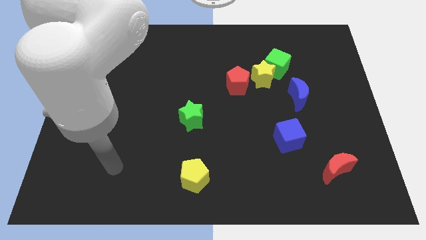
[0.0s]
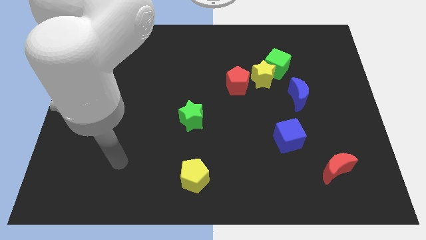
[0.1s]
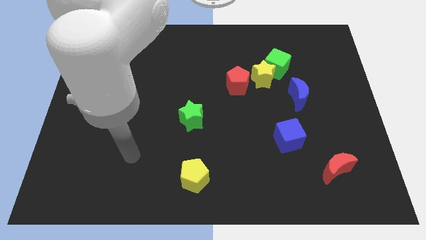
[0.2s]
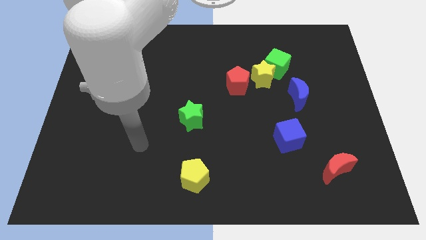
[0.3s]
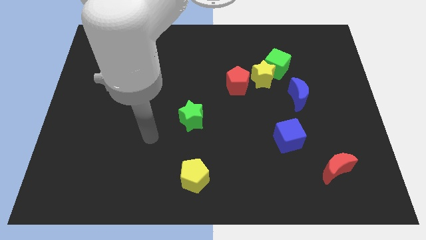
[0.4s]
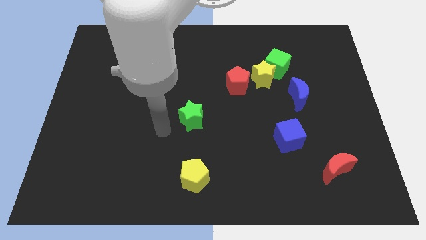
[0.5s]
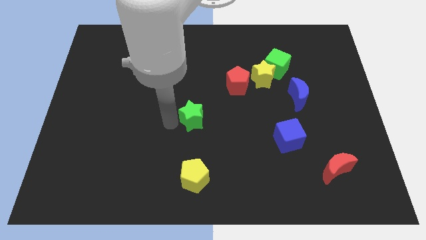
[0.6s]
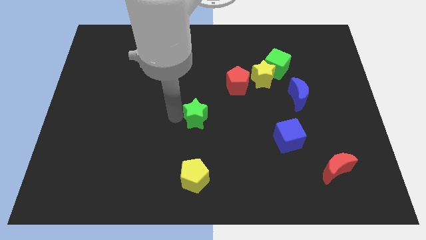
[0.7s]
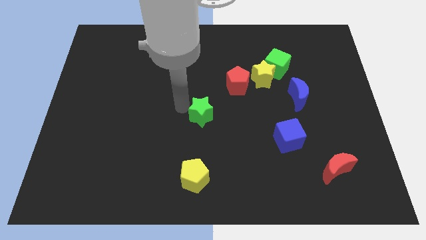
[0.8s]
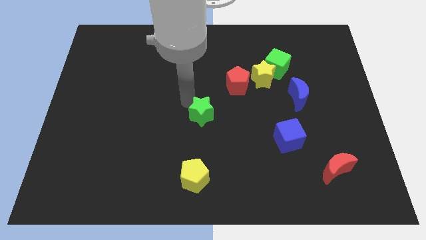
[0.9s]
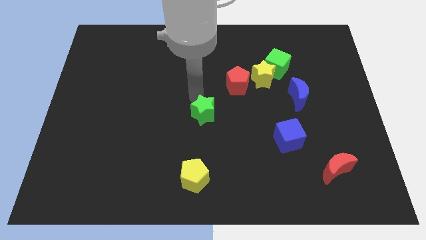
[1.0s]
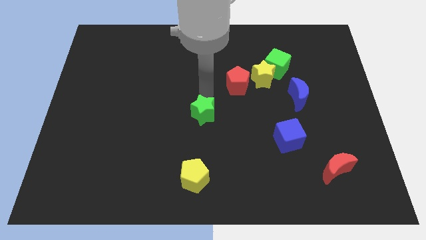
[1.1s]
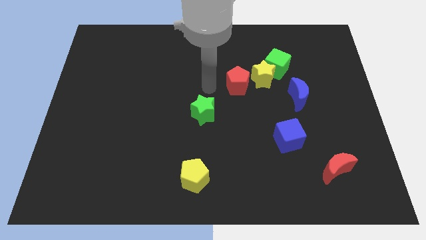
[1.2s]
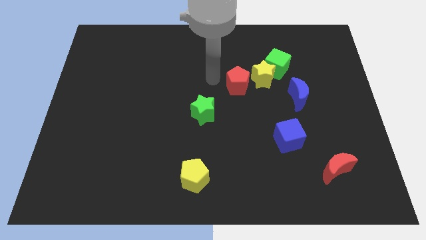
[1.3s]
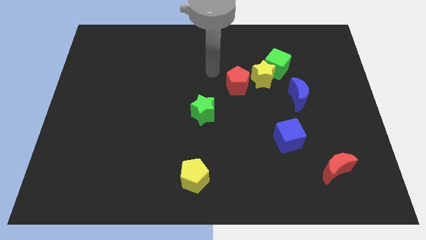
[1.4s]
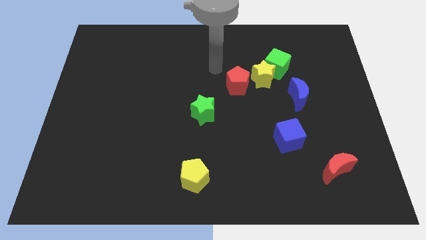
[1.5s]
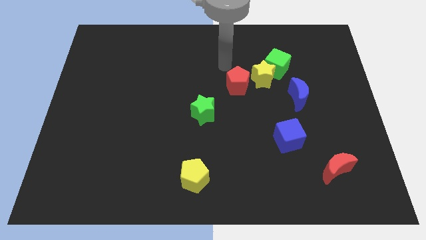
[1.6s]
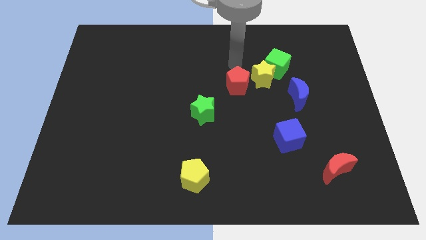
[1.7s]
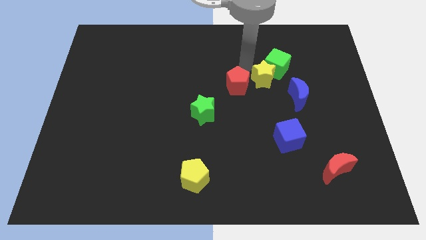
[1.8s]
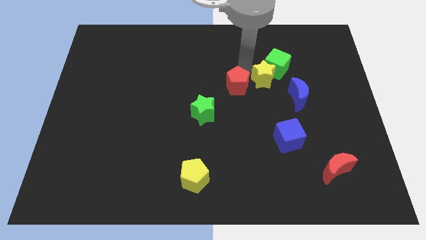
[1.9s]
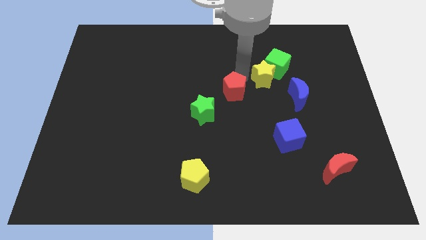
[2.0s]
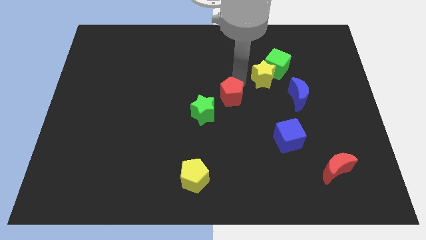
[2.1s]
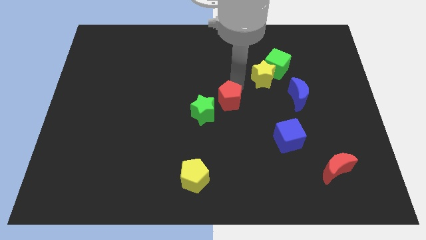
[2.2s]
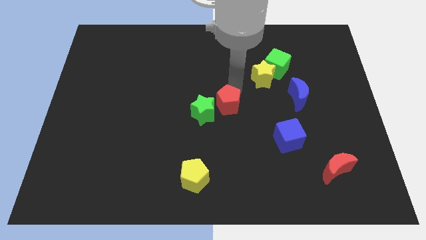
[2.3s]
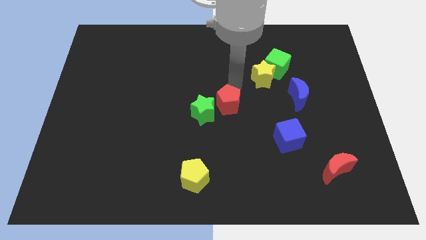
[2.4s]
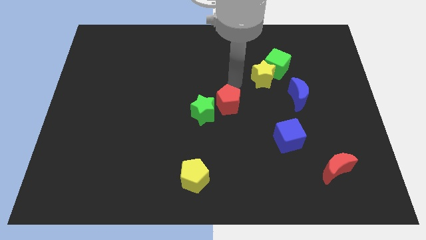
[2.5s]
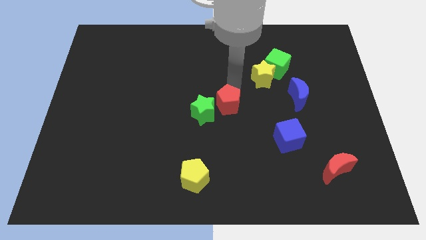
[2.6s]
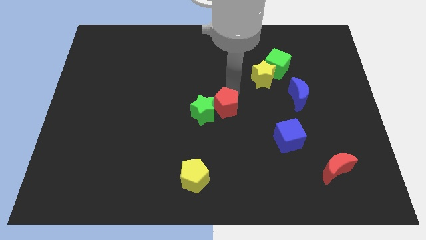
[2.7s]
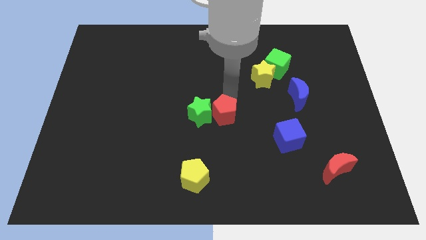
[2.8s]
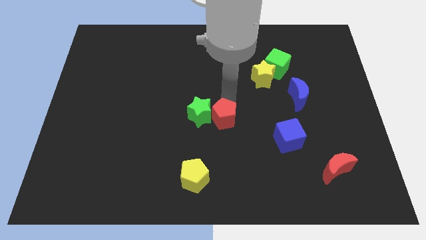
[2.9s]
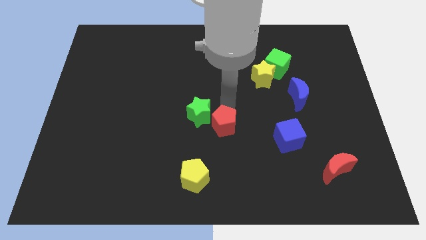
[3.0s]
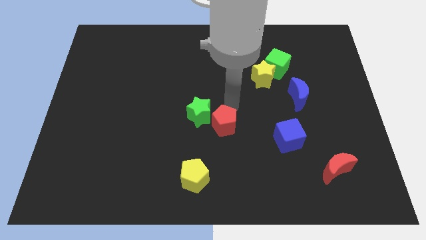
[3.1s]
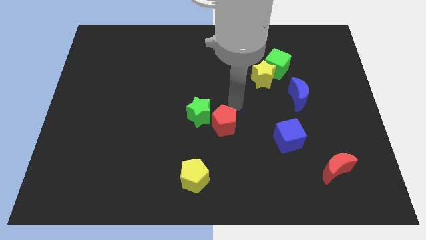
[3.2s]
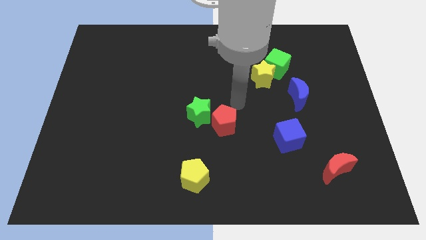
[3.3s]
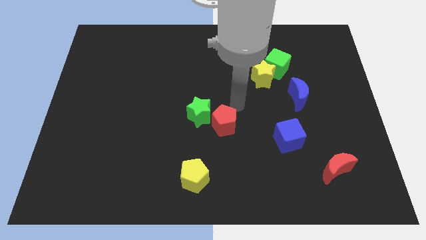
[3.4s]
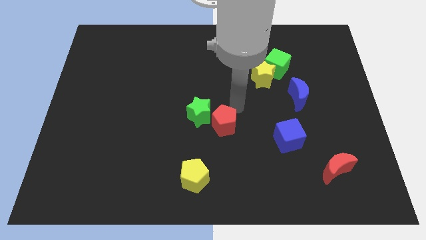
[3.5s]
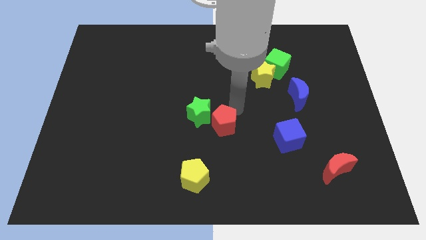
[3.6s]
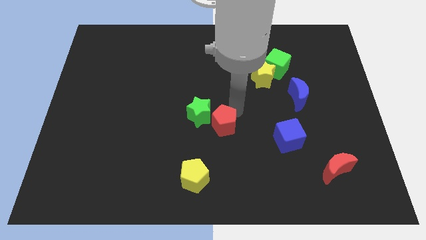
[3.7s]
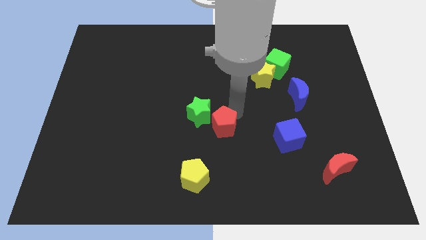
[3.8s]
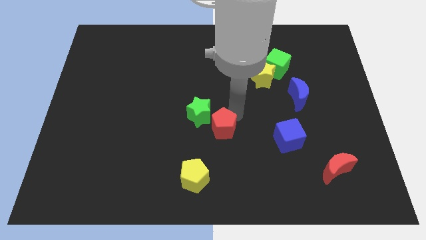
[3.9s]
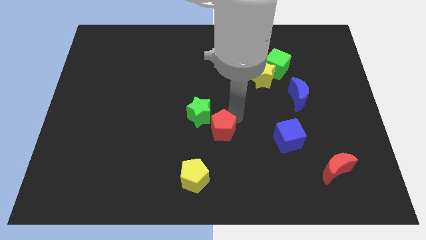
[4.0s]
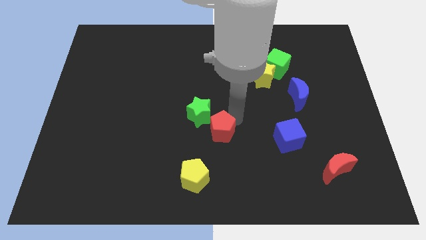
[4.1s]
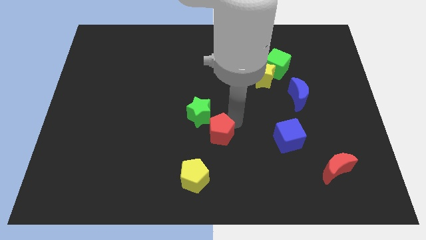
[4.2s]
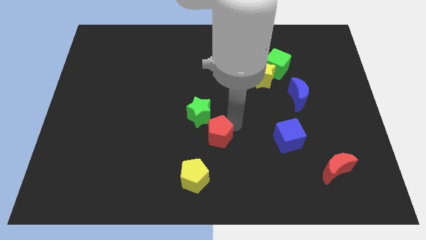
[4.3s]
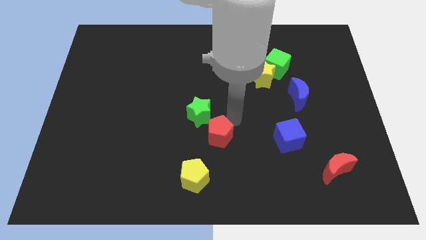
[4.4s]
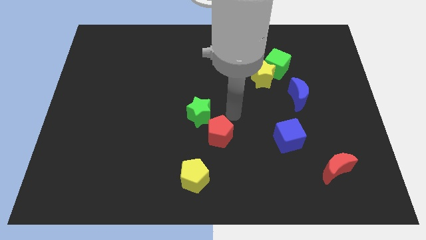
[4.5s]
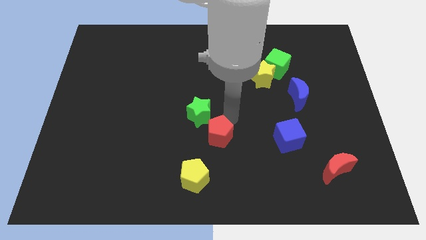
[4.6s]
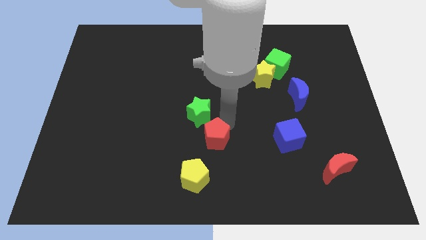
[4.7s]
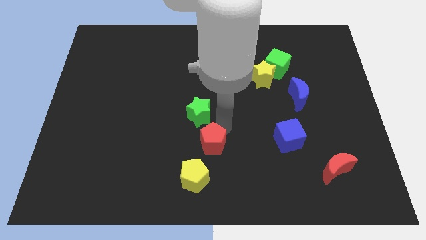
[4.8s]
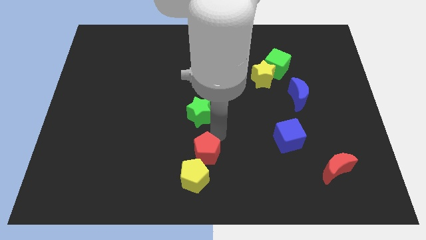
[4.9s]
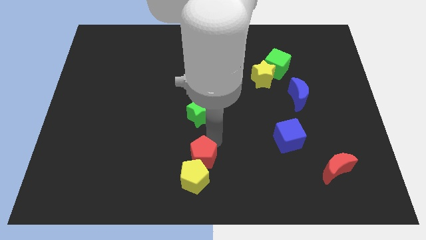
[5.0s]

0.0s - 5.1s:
move the red pentagon towards the yellow pentagon

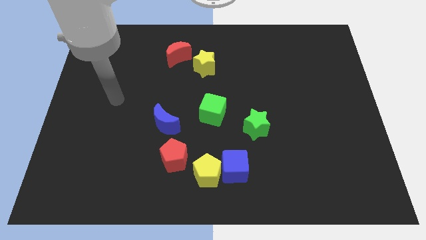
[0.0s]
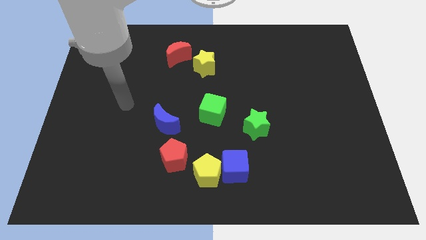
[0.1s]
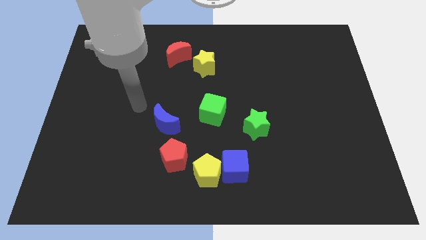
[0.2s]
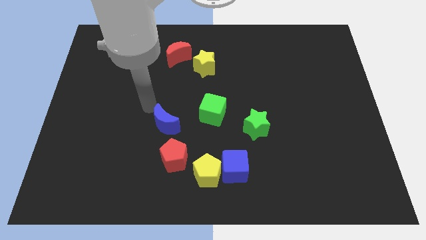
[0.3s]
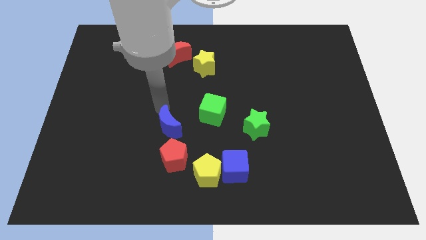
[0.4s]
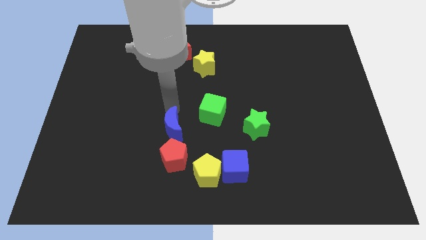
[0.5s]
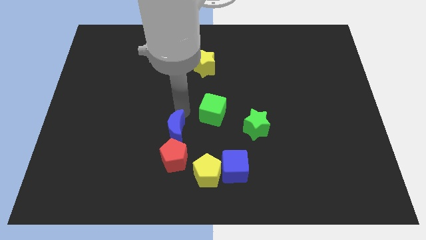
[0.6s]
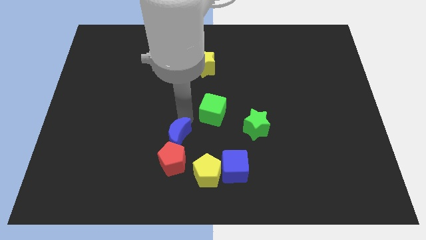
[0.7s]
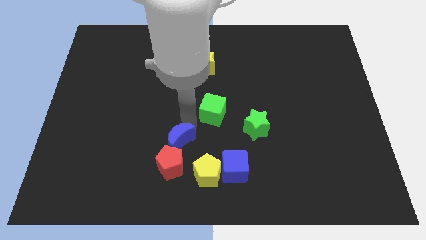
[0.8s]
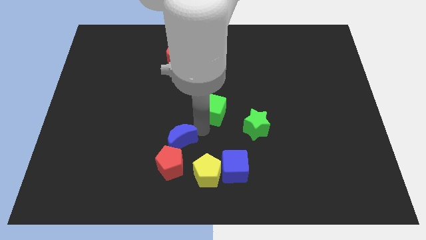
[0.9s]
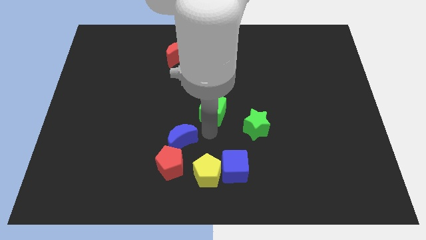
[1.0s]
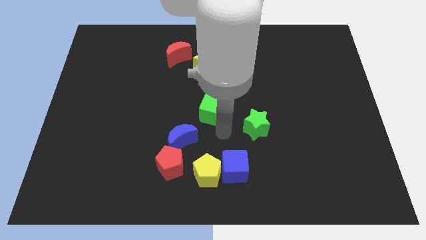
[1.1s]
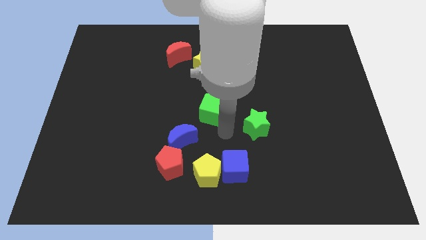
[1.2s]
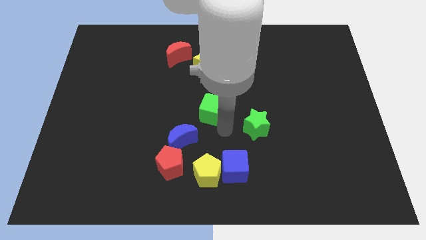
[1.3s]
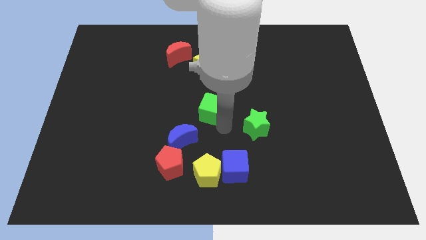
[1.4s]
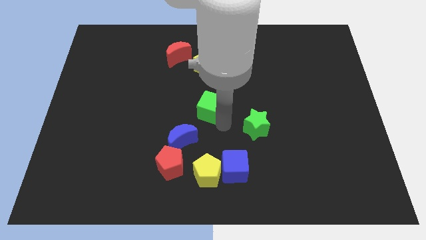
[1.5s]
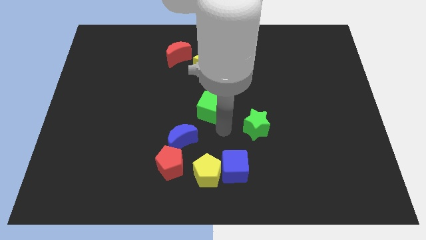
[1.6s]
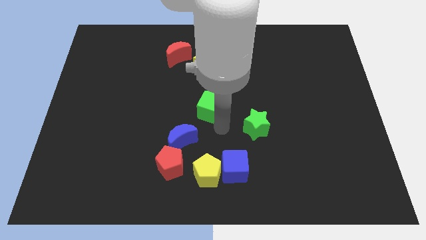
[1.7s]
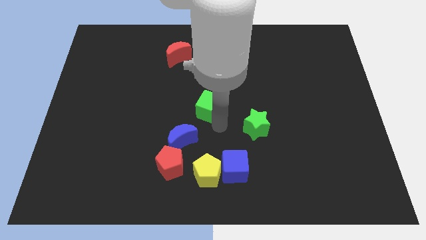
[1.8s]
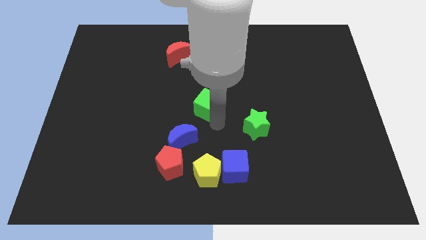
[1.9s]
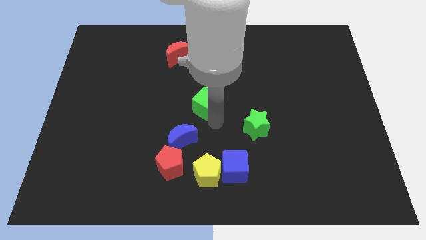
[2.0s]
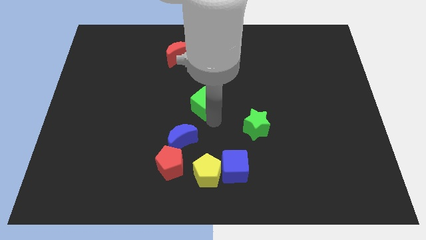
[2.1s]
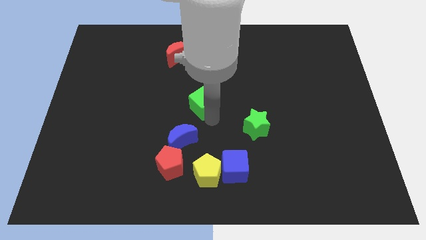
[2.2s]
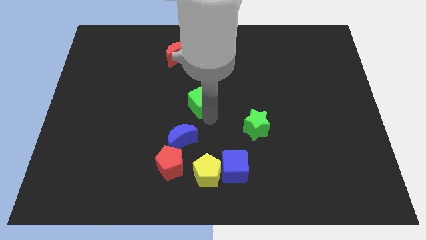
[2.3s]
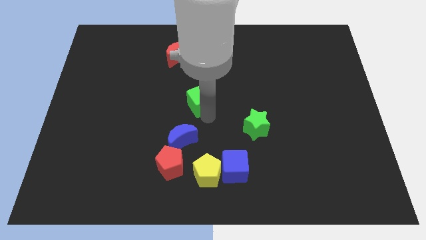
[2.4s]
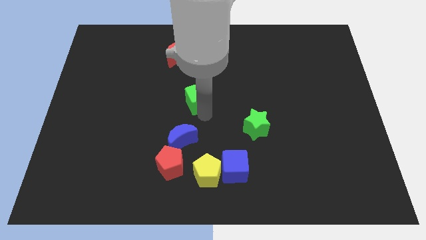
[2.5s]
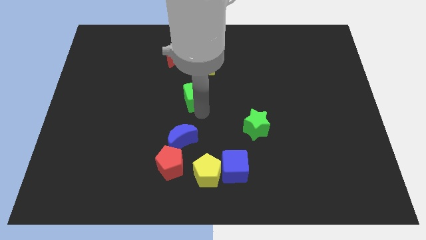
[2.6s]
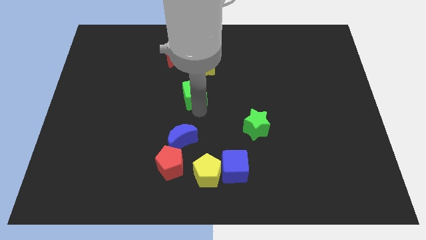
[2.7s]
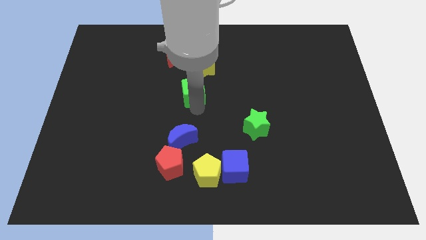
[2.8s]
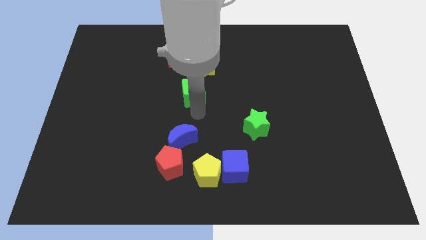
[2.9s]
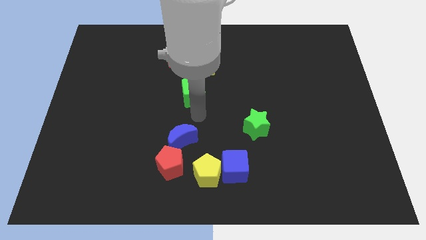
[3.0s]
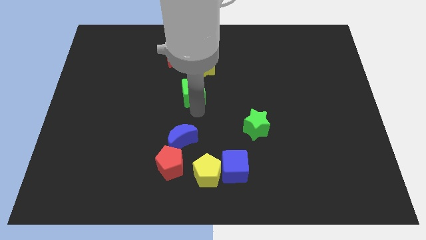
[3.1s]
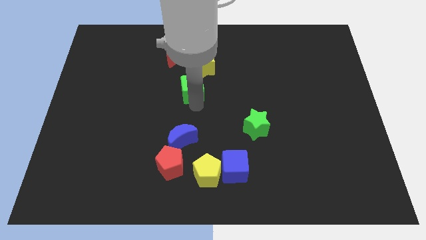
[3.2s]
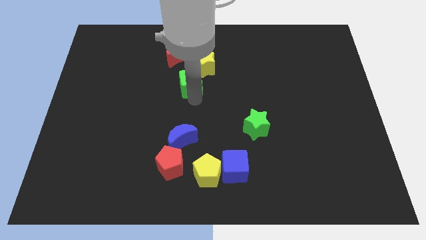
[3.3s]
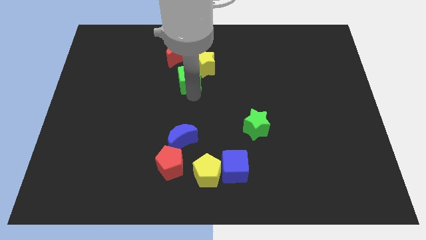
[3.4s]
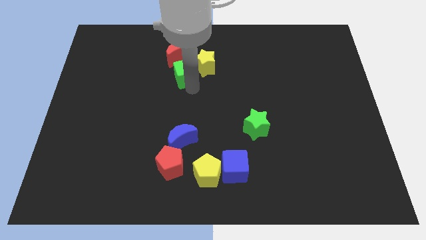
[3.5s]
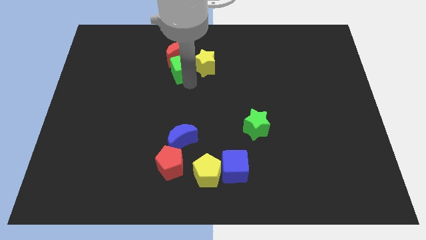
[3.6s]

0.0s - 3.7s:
slide the green cube to the red moon
